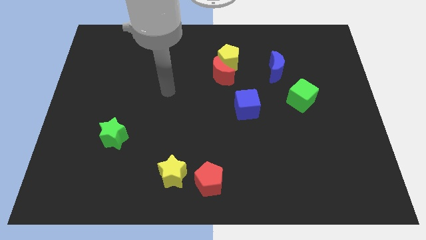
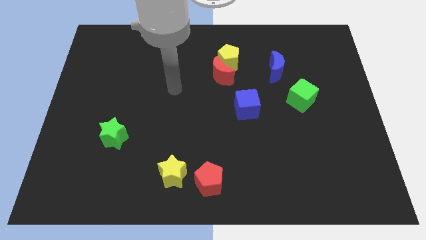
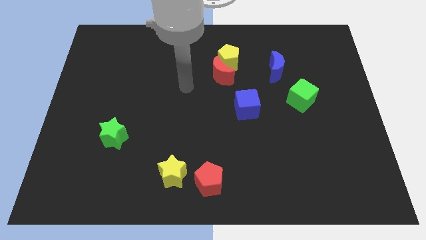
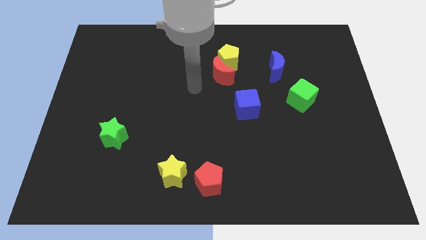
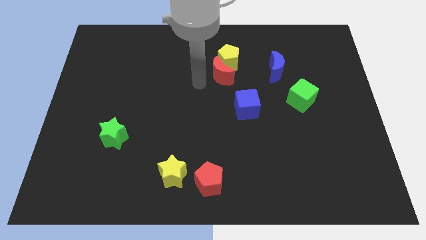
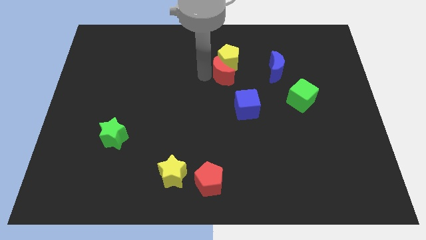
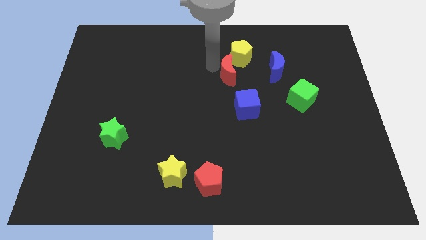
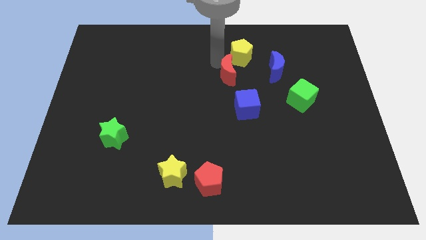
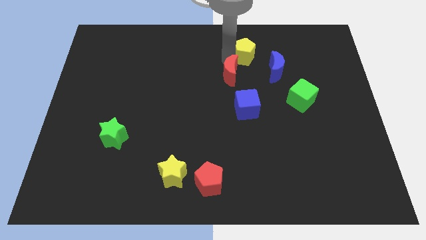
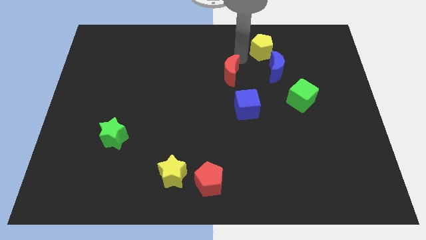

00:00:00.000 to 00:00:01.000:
separate the red moon from the yellow pentagon

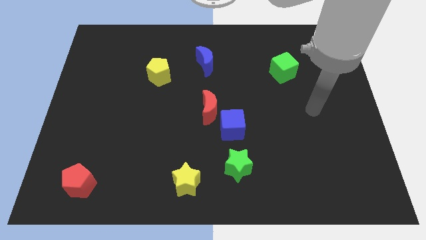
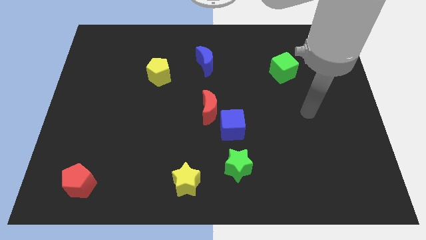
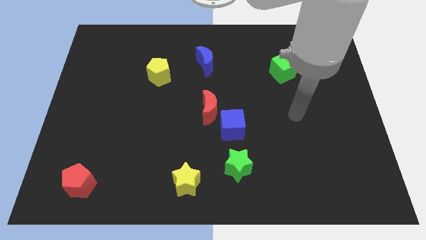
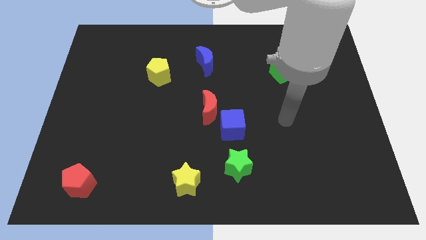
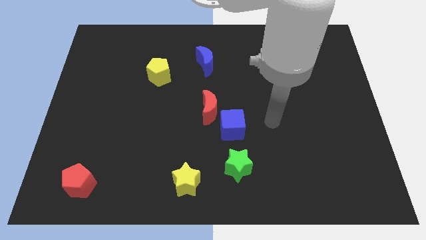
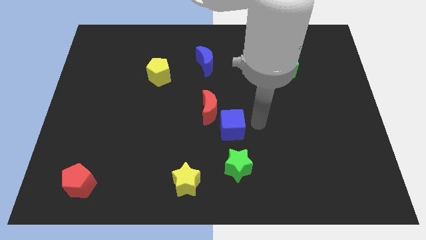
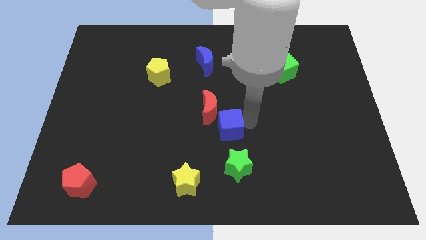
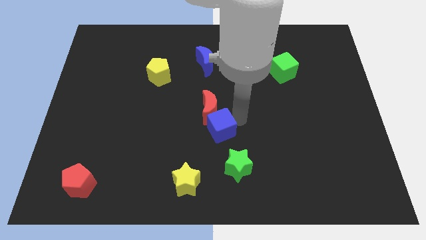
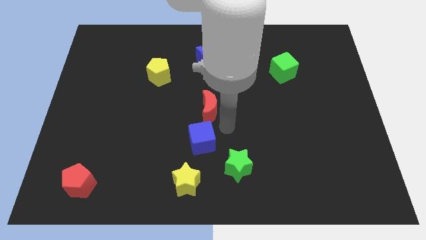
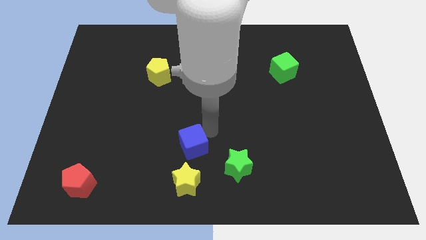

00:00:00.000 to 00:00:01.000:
pull the red moon apart from the blue cube

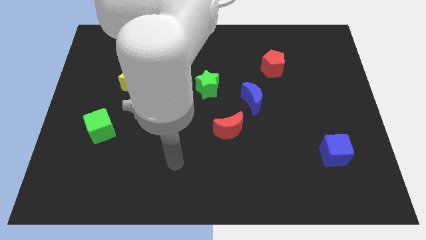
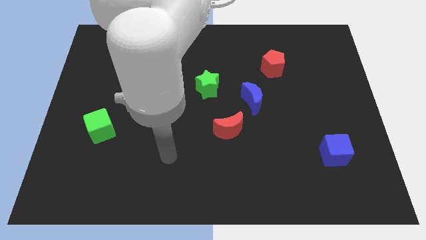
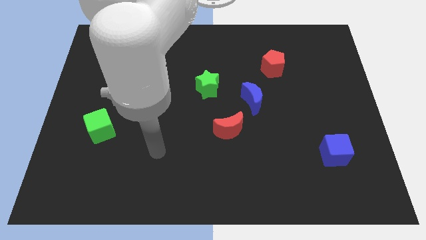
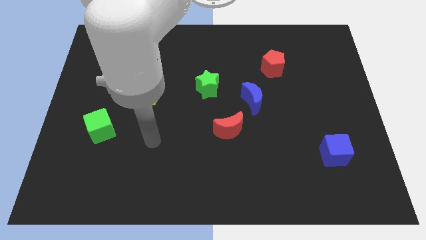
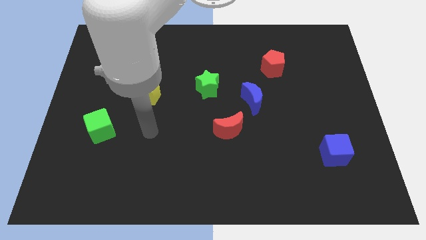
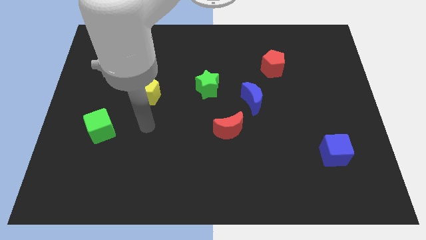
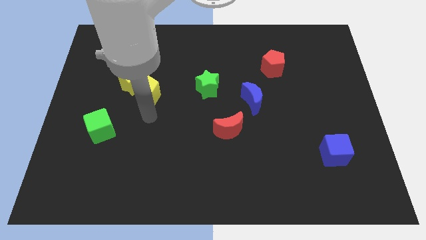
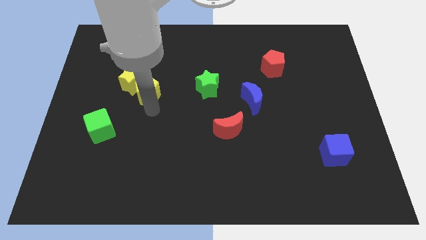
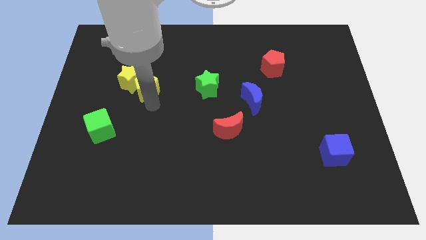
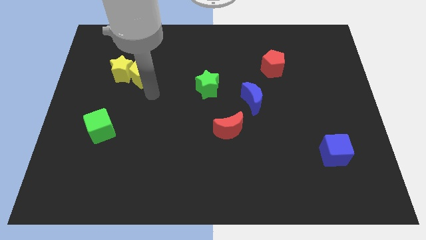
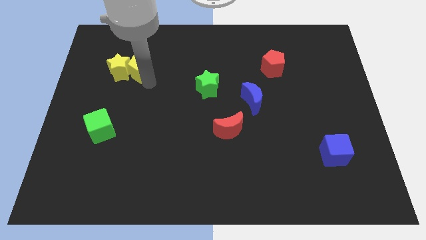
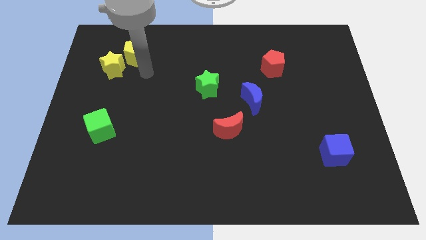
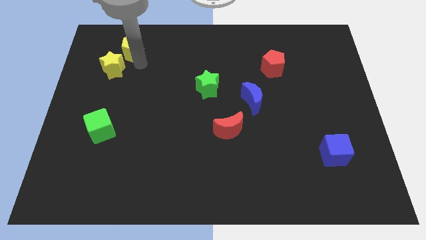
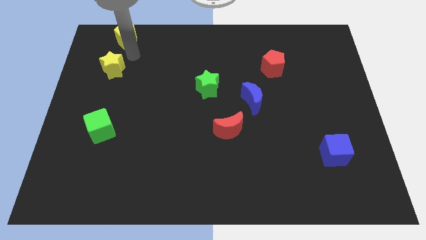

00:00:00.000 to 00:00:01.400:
pull the yellow star apart from the yellow pentagon

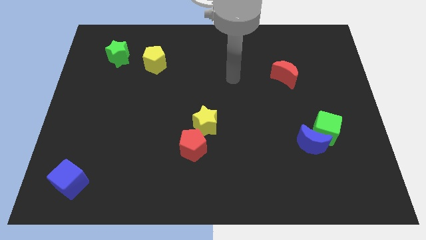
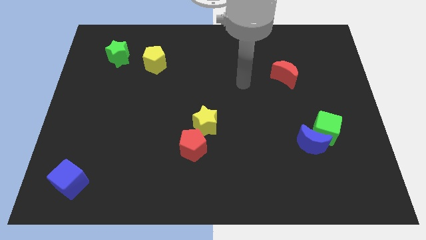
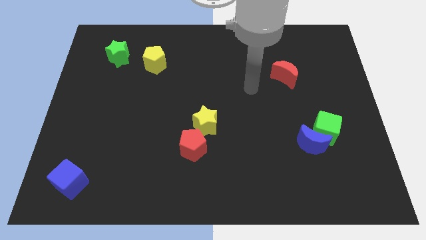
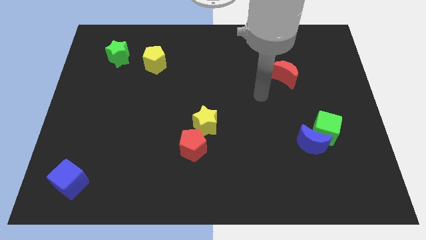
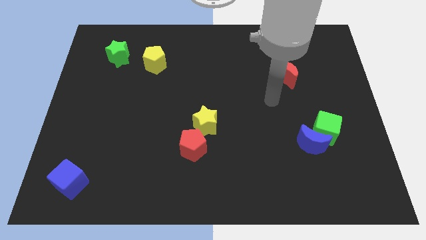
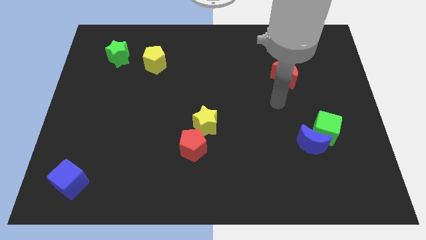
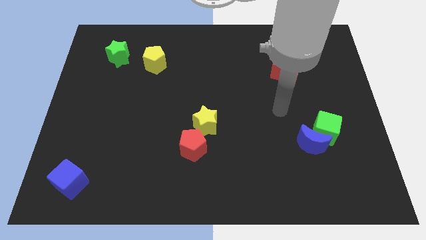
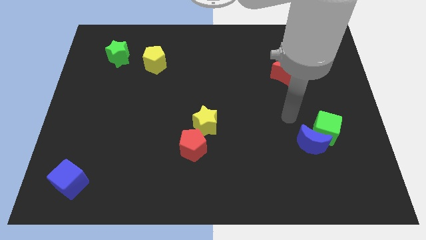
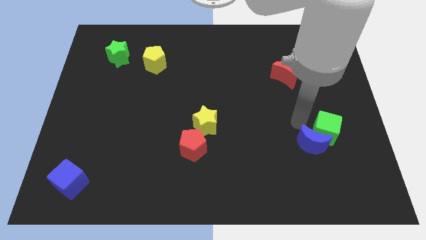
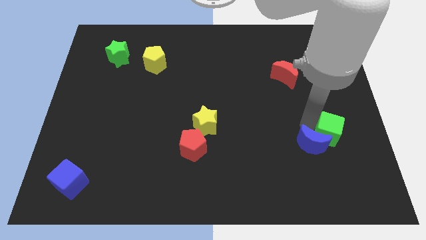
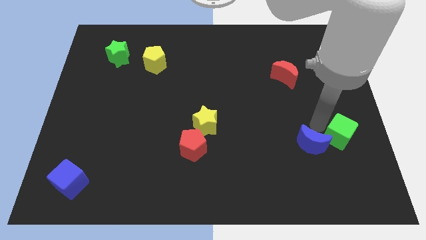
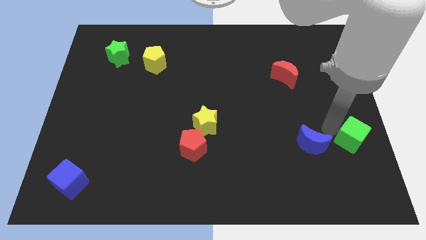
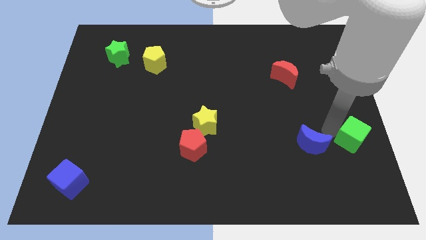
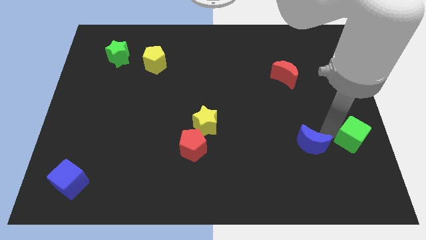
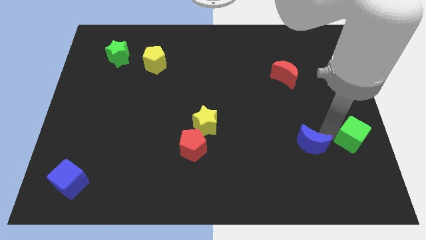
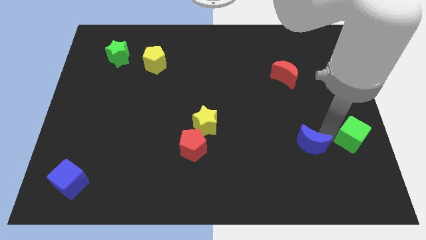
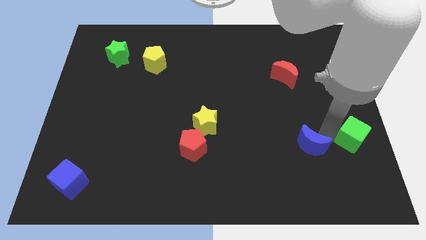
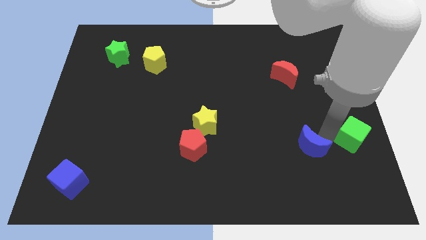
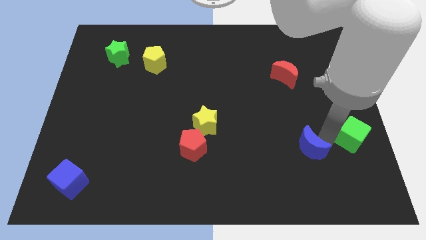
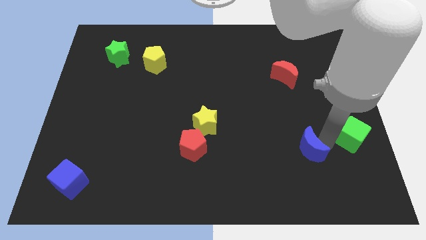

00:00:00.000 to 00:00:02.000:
move the blue moon away from the green cube

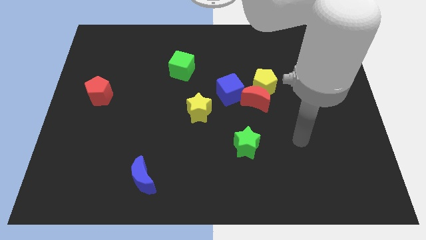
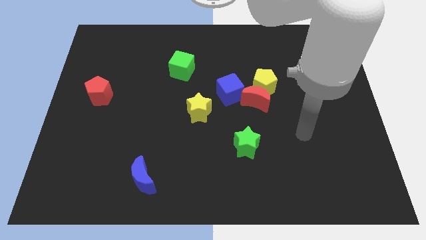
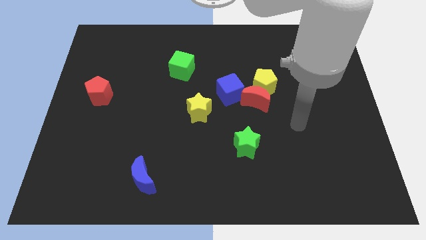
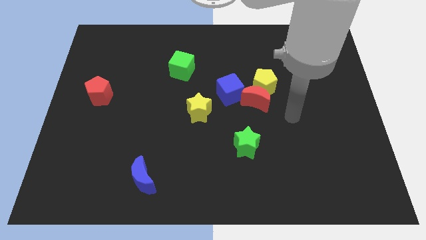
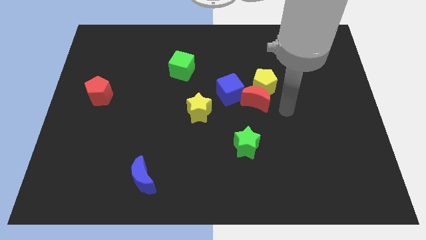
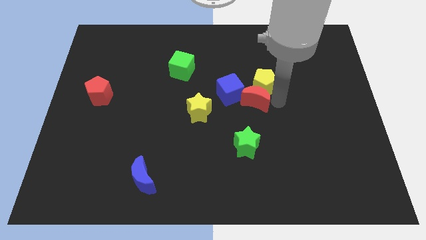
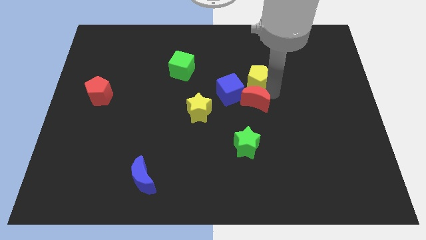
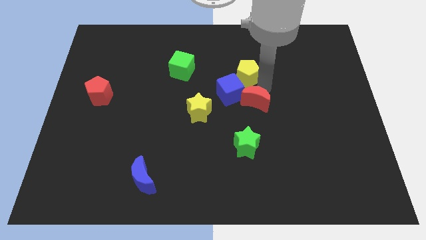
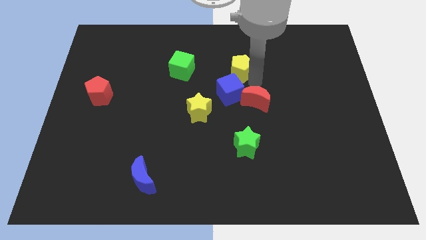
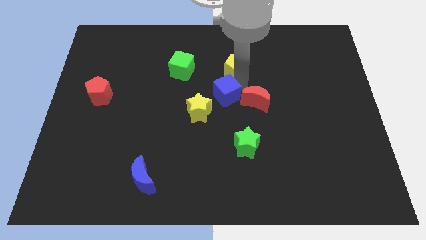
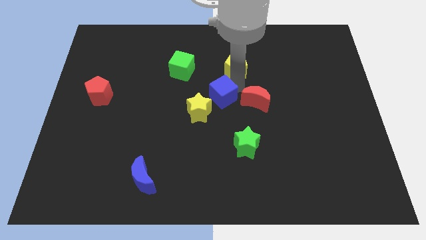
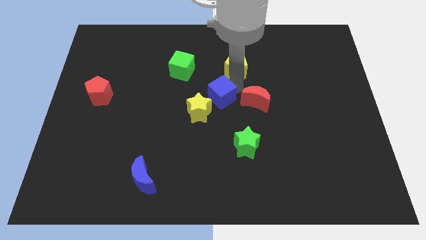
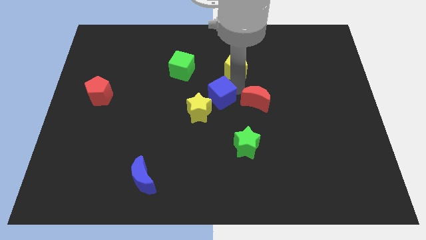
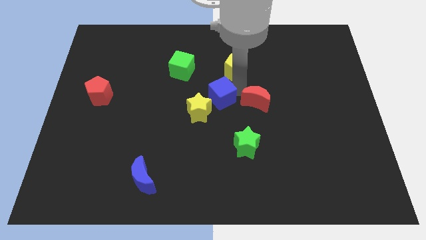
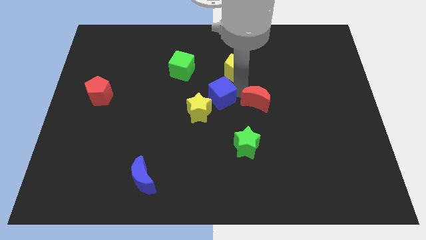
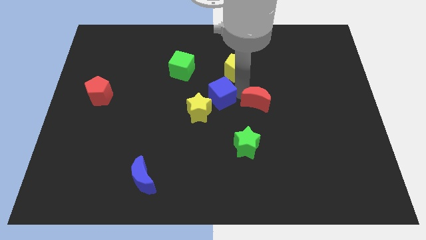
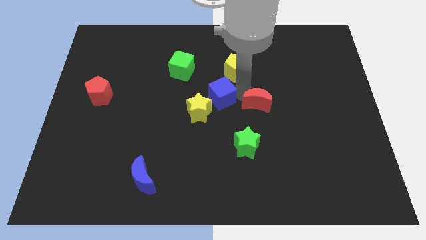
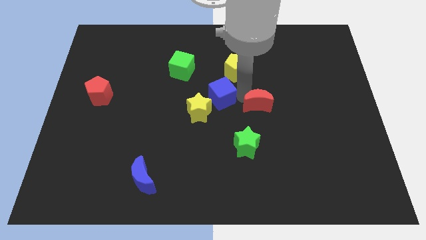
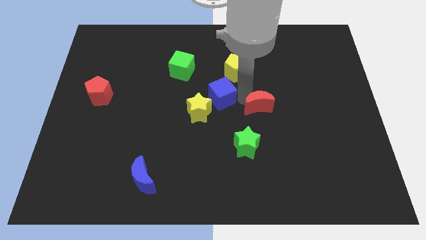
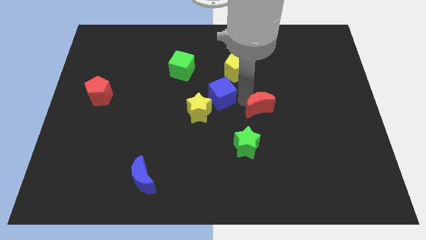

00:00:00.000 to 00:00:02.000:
move the red moon away from the yellow pentagon and blue cube

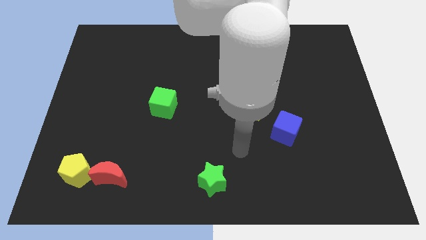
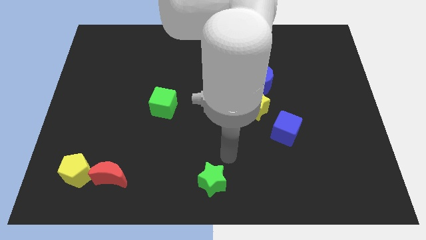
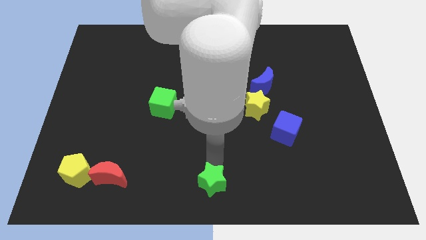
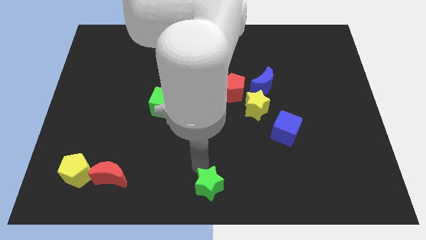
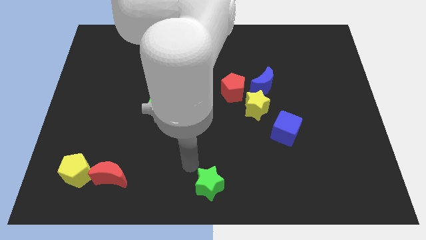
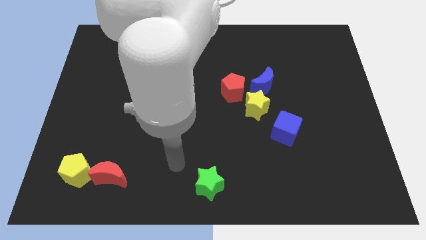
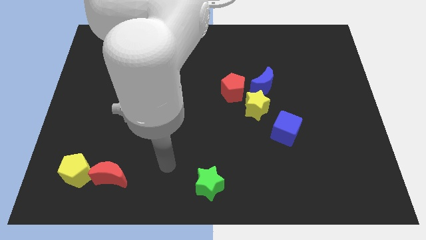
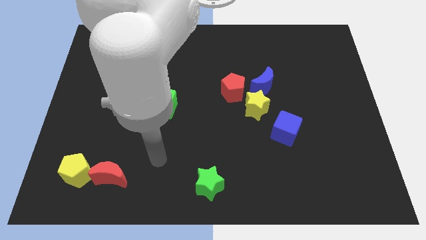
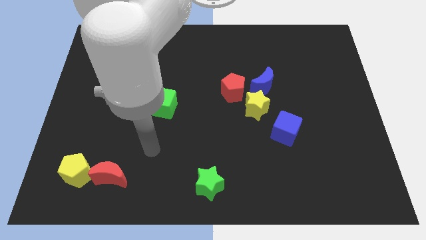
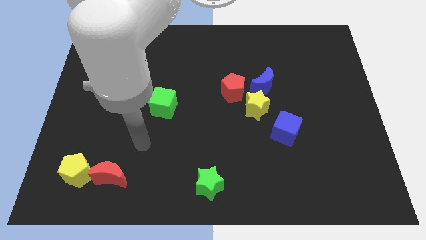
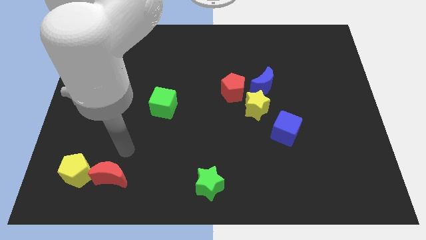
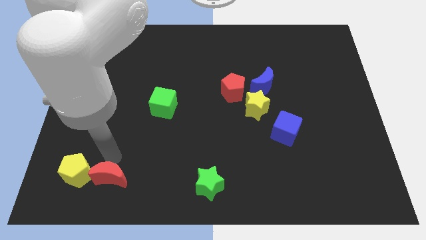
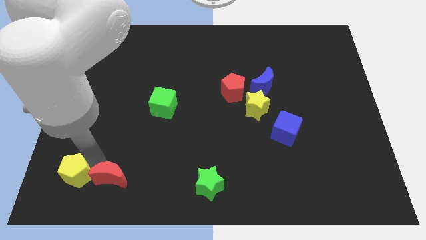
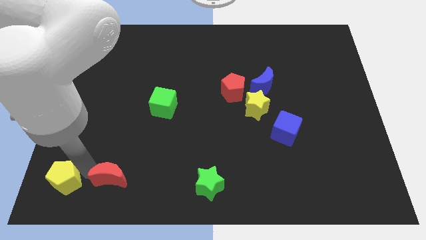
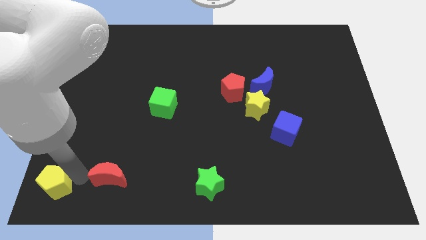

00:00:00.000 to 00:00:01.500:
pull the red moon apart from the yellow pentagon

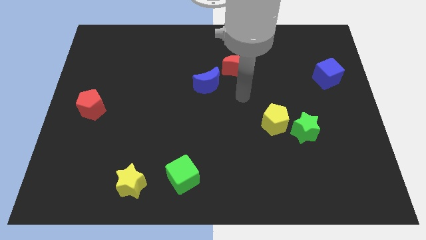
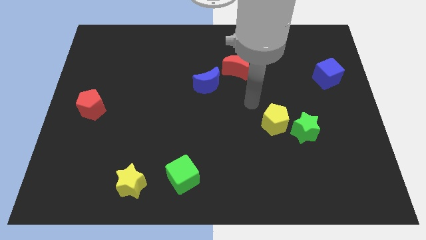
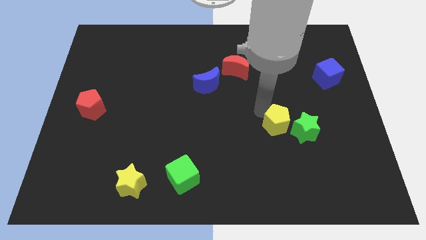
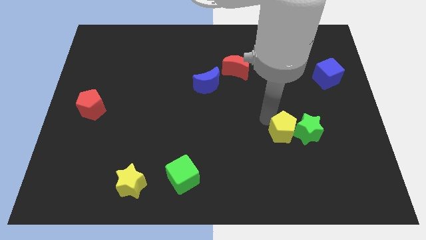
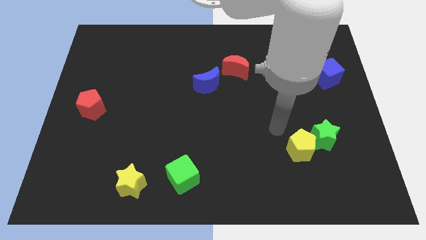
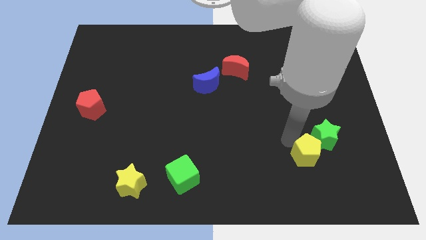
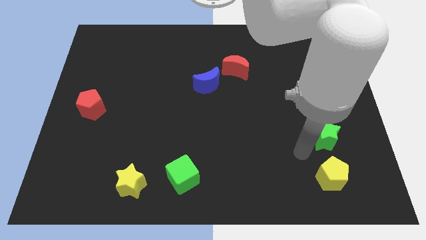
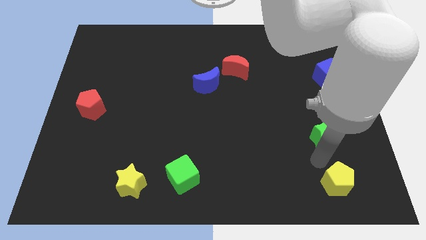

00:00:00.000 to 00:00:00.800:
pull the green star apart from the yellow pentagon
